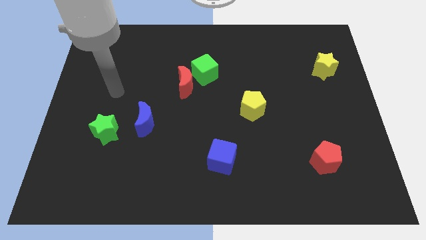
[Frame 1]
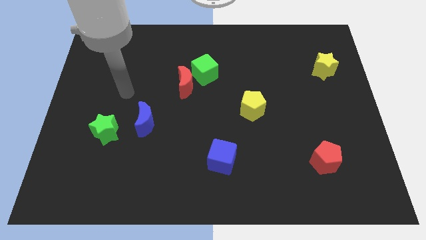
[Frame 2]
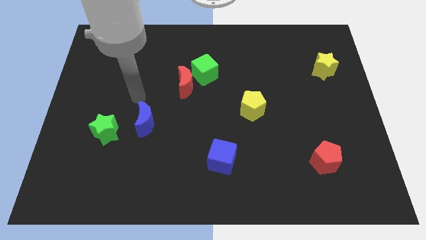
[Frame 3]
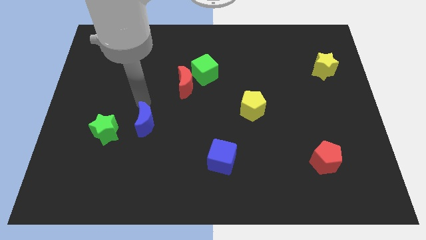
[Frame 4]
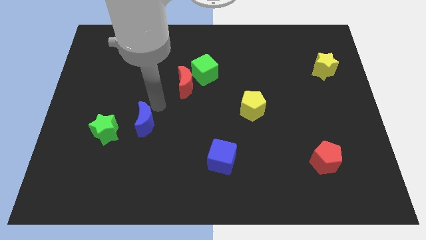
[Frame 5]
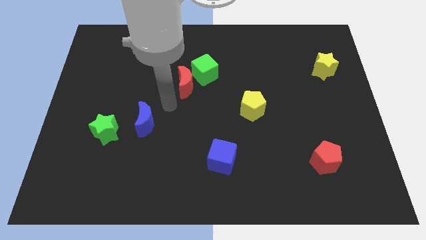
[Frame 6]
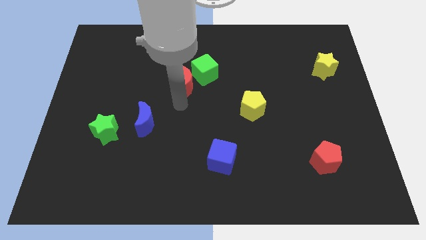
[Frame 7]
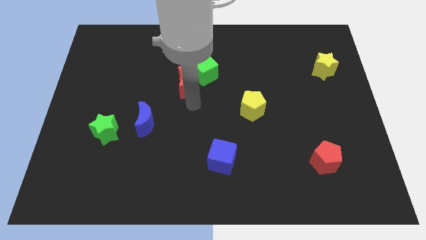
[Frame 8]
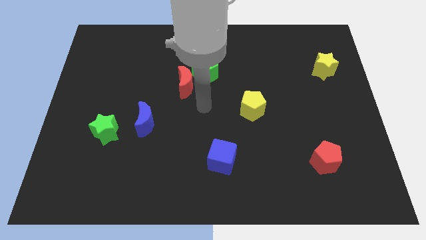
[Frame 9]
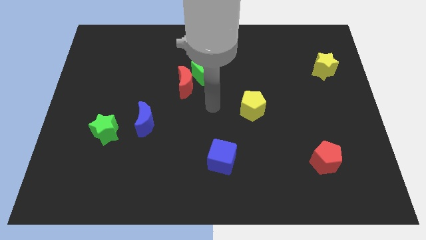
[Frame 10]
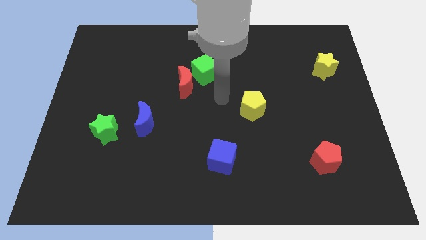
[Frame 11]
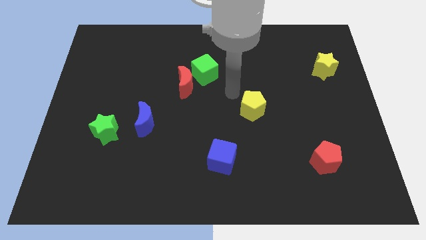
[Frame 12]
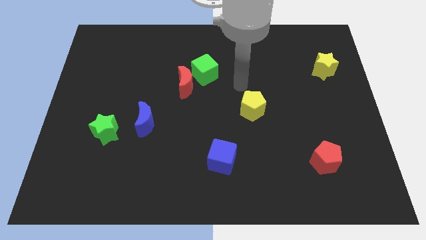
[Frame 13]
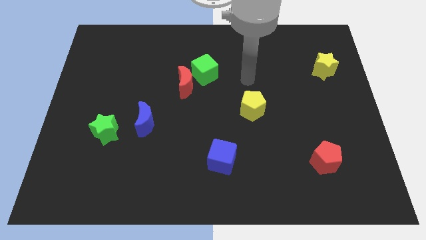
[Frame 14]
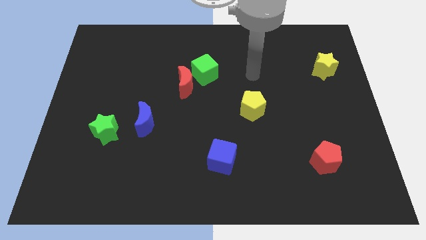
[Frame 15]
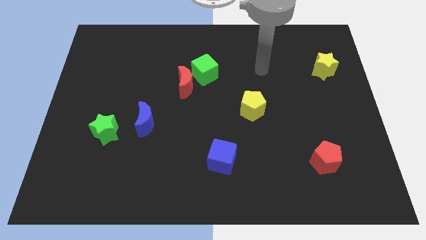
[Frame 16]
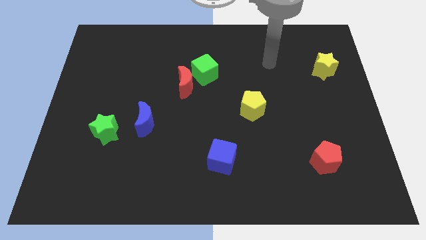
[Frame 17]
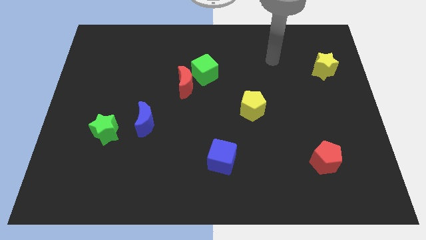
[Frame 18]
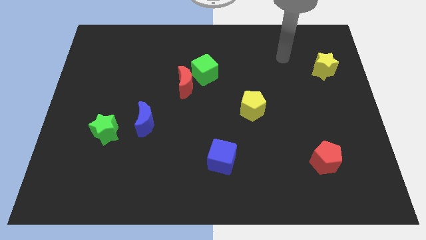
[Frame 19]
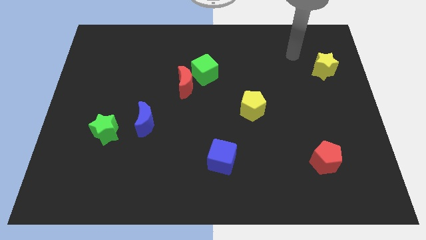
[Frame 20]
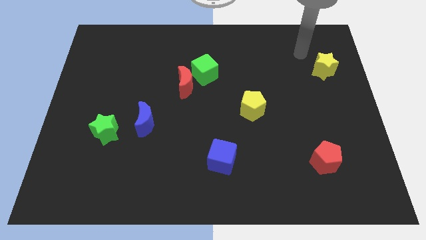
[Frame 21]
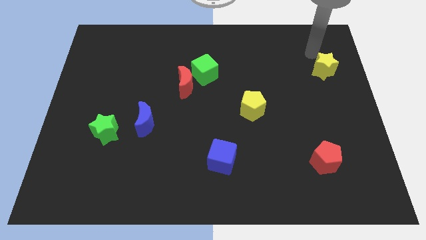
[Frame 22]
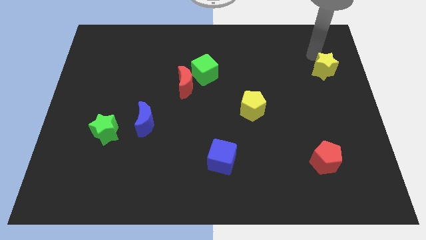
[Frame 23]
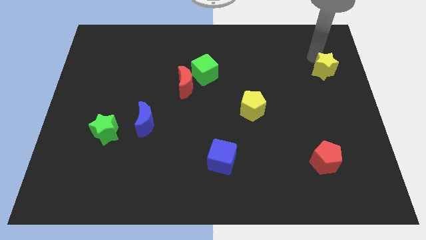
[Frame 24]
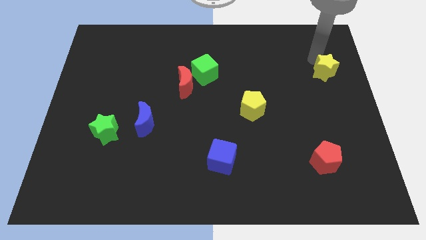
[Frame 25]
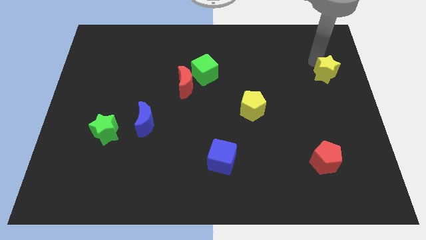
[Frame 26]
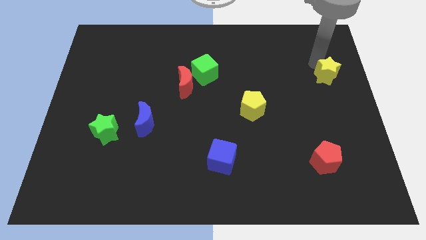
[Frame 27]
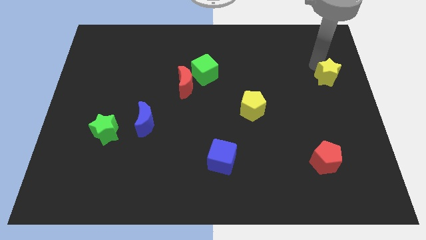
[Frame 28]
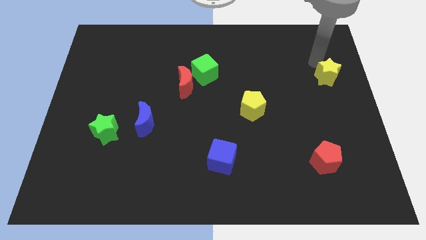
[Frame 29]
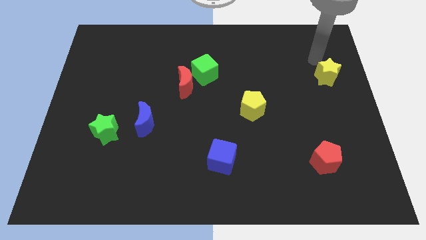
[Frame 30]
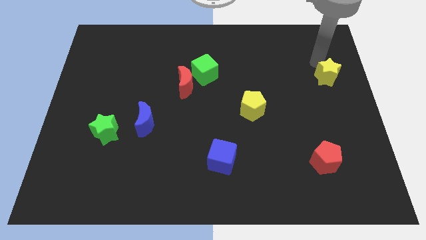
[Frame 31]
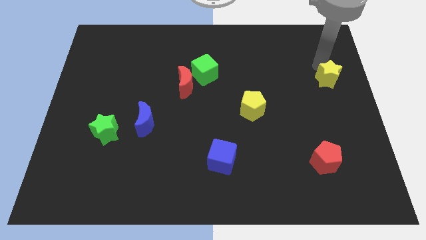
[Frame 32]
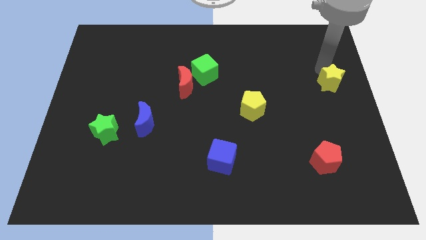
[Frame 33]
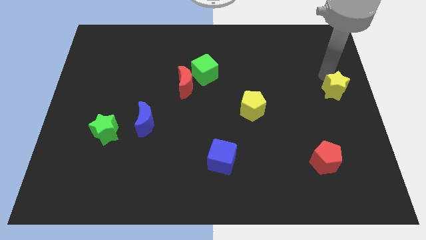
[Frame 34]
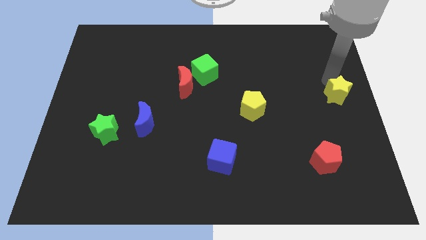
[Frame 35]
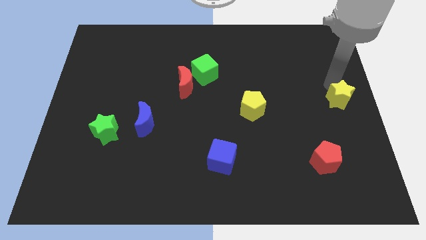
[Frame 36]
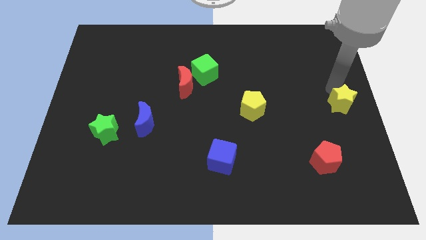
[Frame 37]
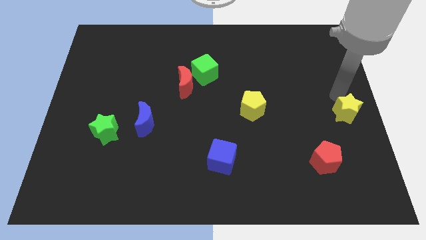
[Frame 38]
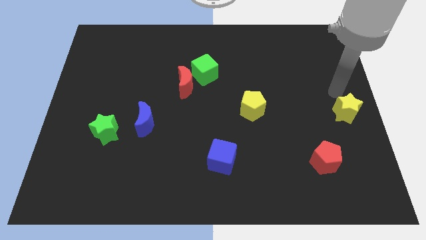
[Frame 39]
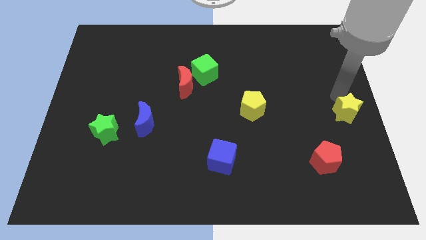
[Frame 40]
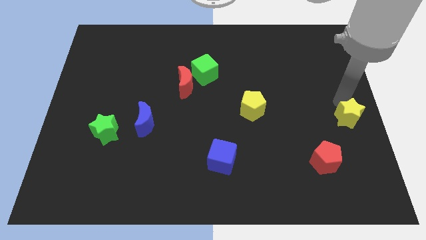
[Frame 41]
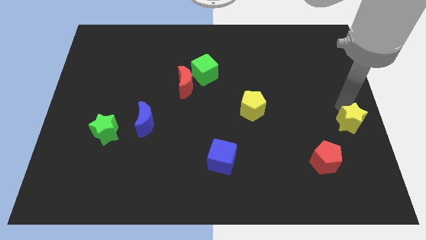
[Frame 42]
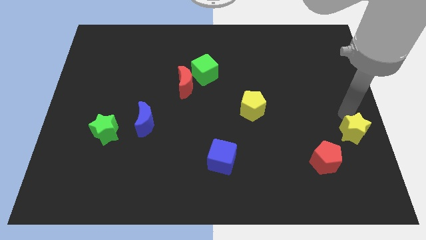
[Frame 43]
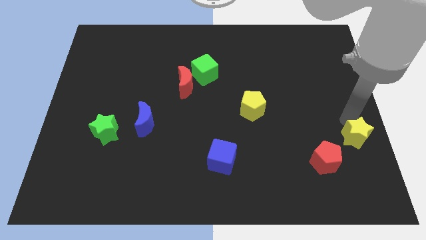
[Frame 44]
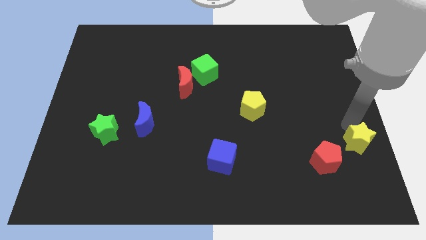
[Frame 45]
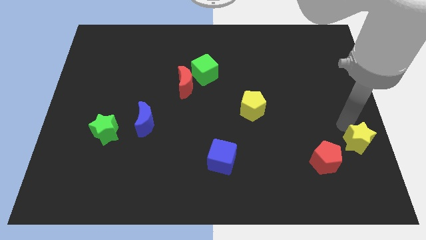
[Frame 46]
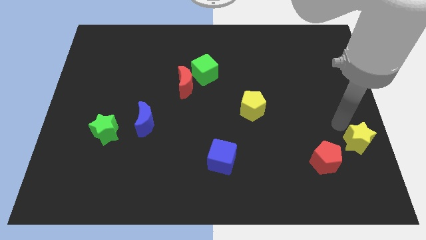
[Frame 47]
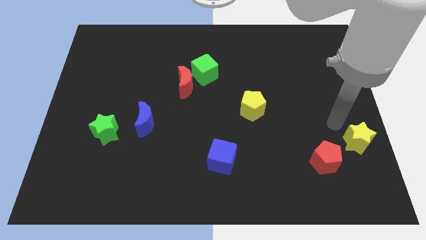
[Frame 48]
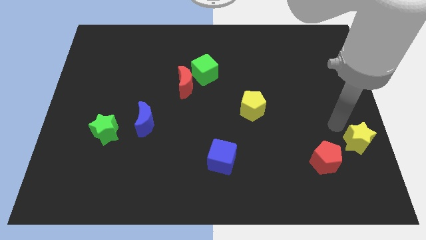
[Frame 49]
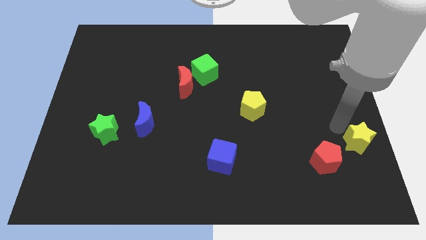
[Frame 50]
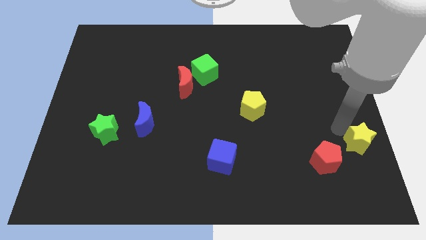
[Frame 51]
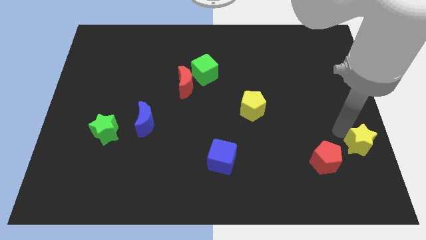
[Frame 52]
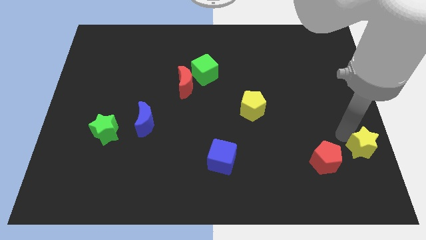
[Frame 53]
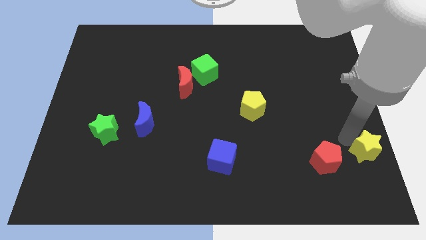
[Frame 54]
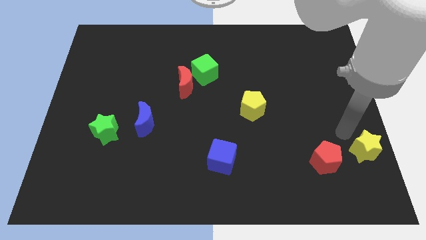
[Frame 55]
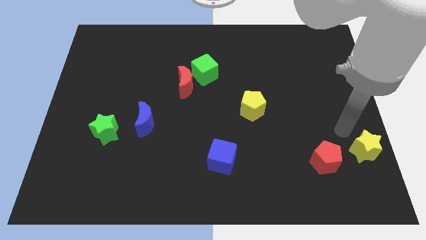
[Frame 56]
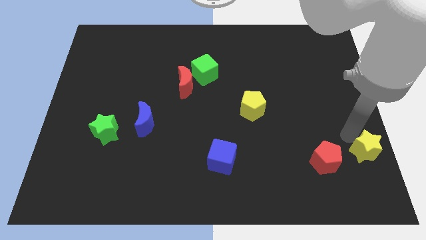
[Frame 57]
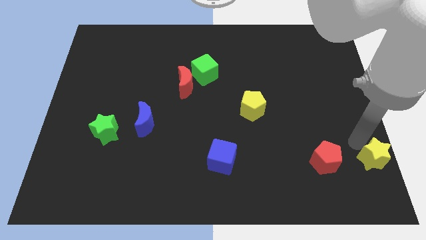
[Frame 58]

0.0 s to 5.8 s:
push the yellow star to the bottom right corner

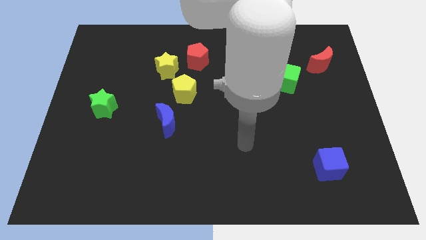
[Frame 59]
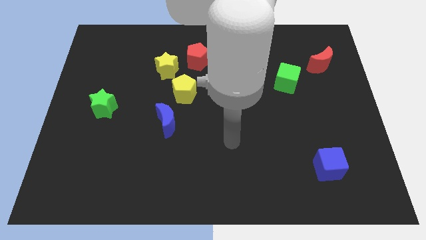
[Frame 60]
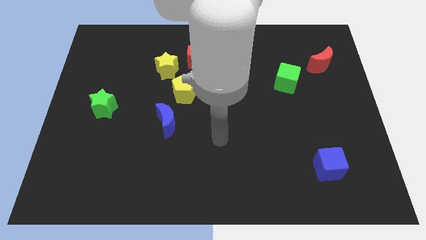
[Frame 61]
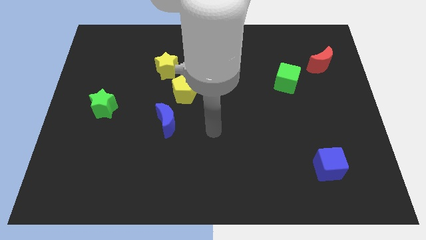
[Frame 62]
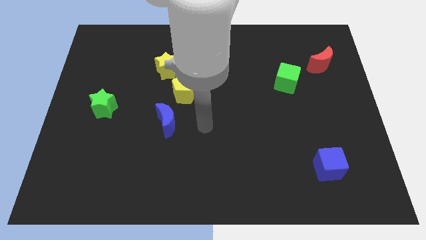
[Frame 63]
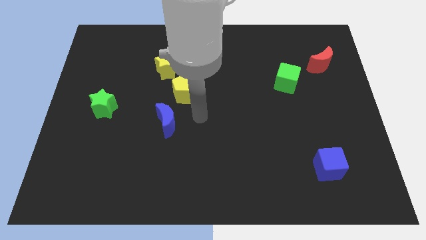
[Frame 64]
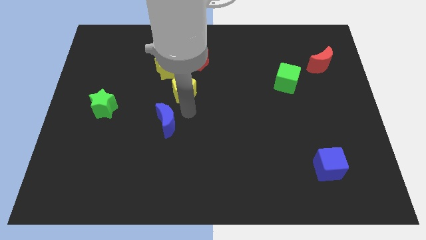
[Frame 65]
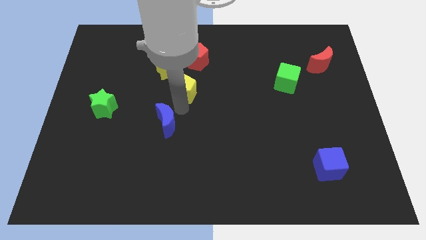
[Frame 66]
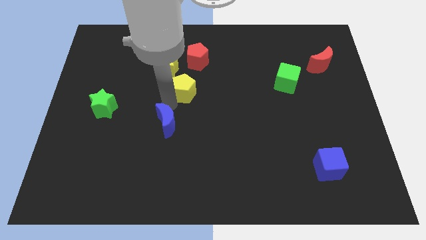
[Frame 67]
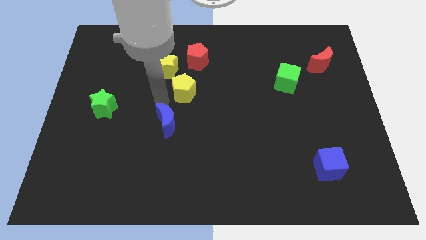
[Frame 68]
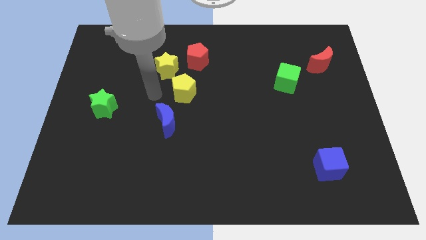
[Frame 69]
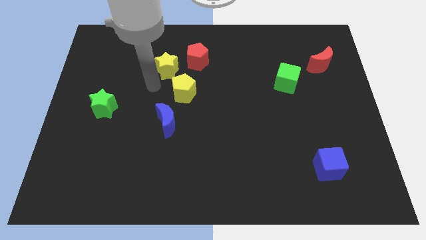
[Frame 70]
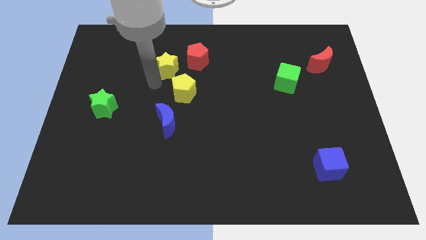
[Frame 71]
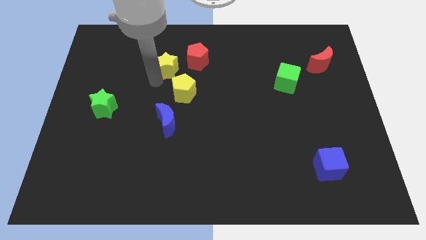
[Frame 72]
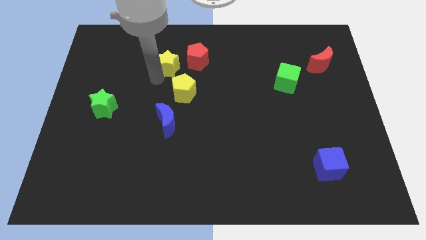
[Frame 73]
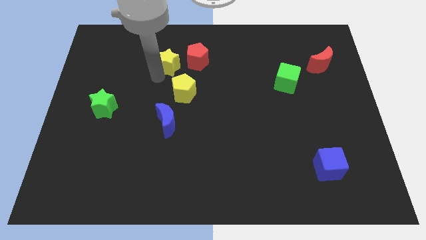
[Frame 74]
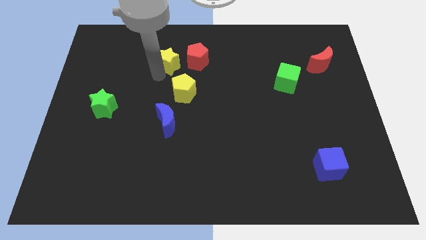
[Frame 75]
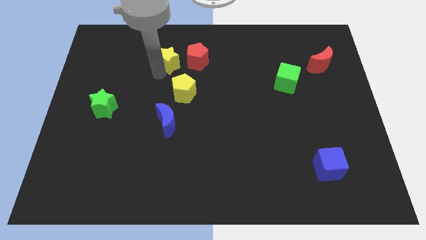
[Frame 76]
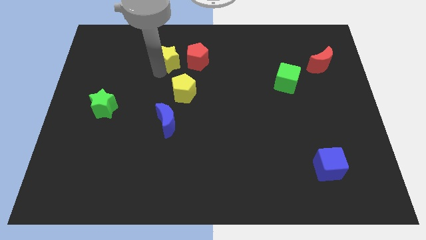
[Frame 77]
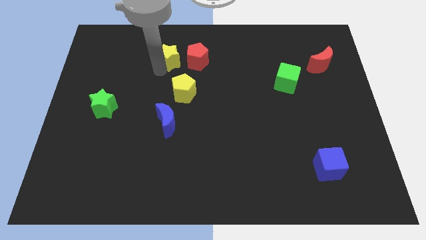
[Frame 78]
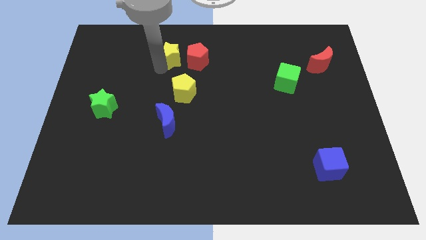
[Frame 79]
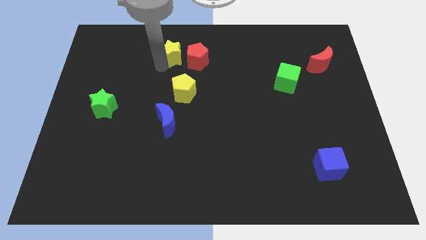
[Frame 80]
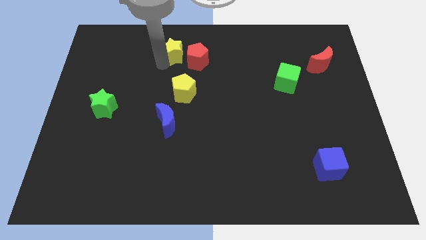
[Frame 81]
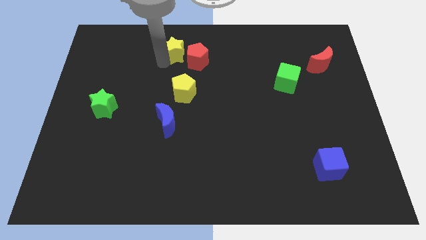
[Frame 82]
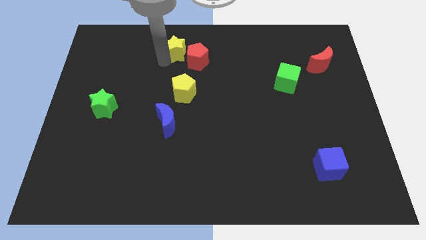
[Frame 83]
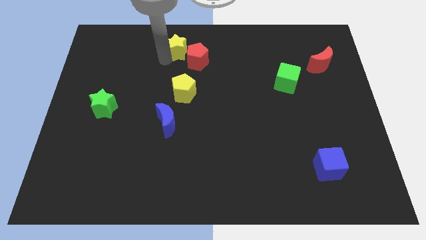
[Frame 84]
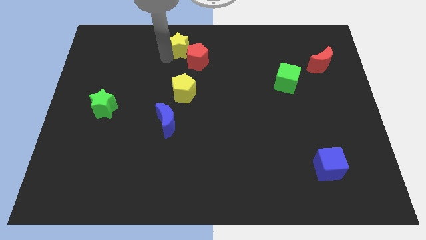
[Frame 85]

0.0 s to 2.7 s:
put the yellow star to the towards your base
